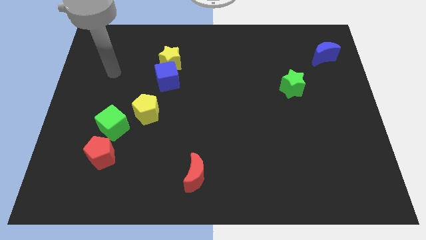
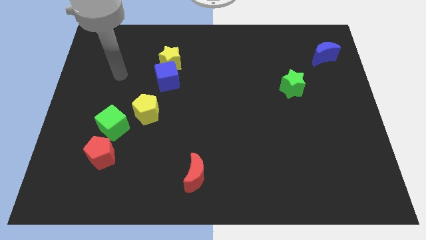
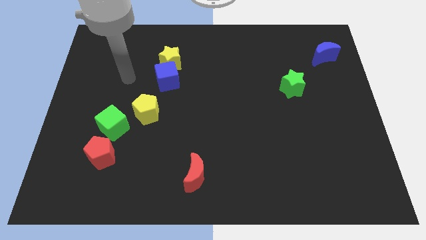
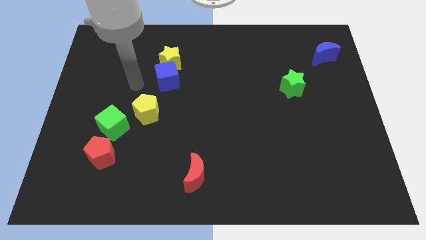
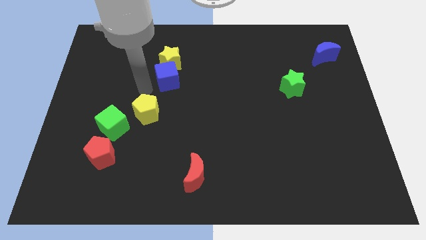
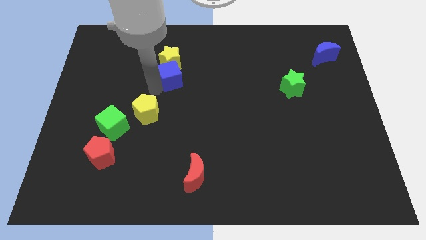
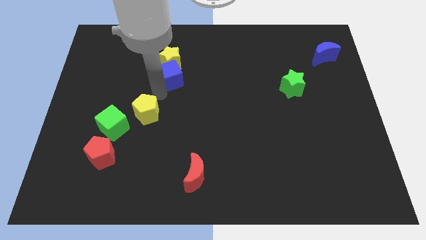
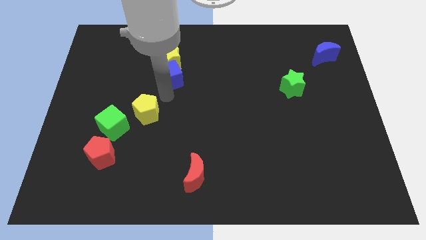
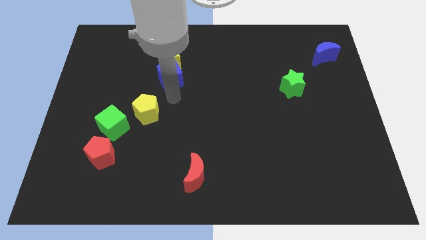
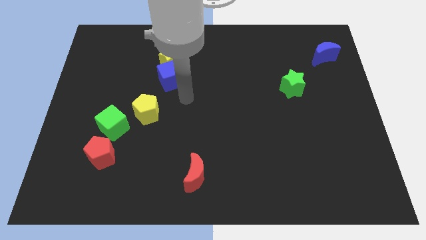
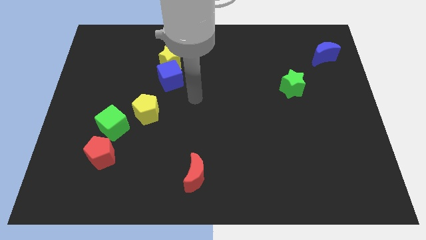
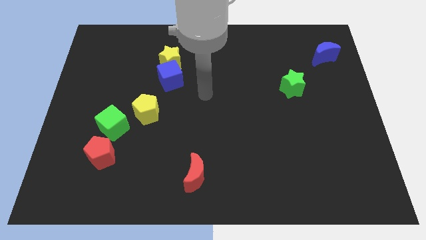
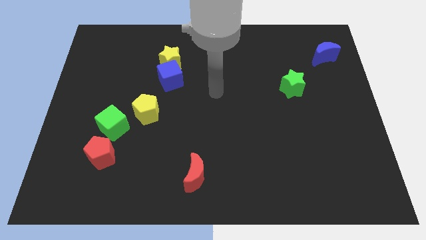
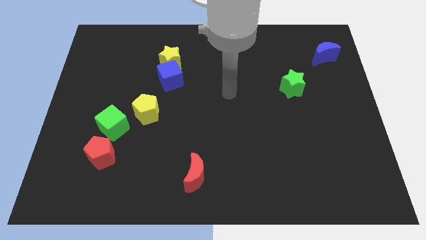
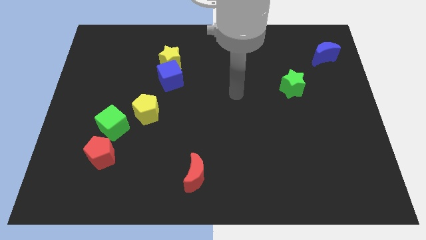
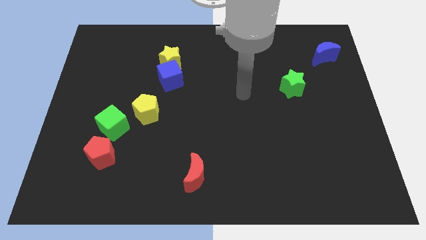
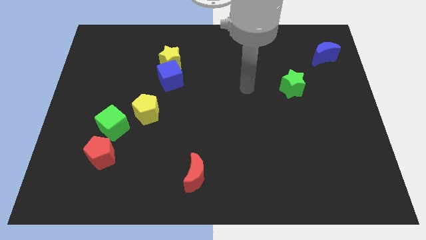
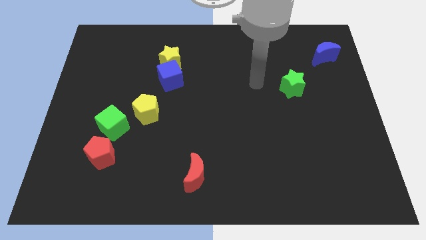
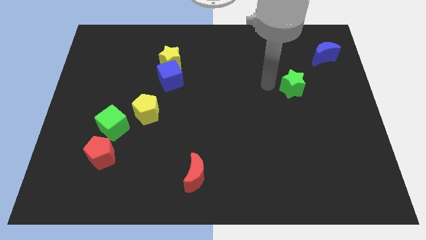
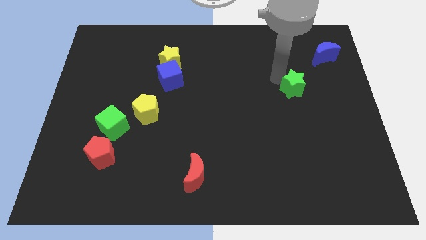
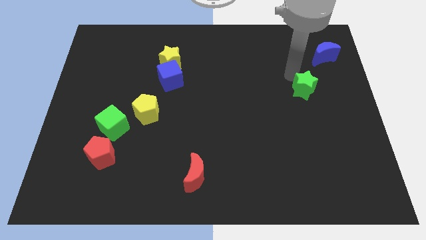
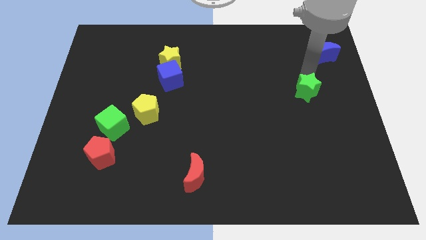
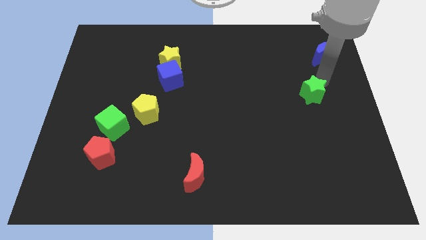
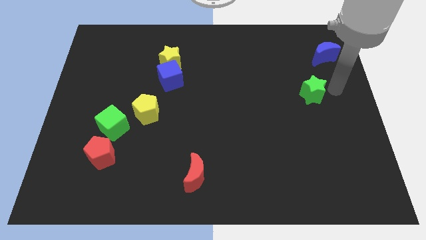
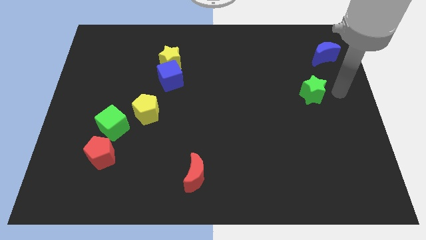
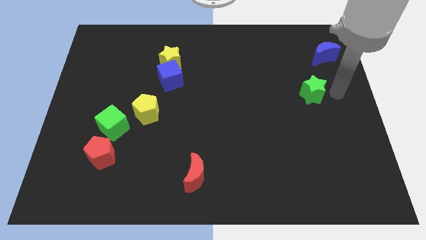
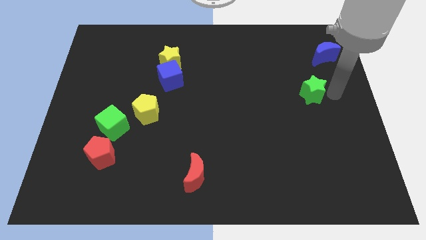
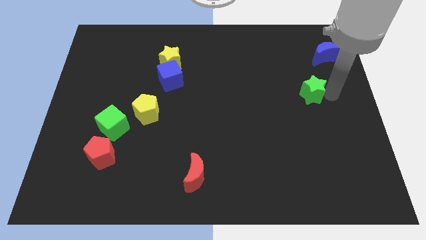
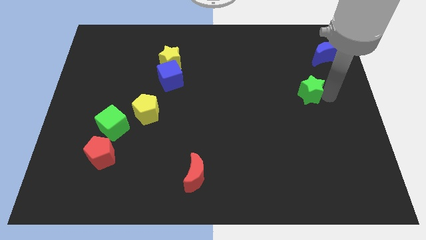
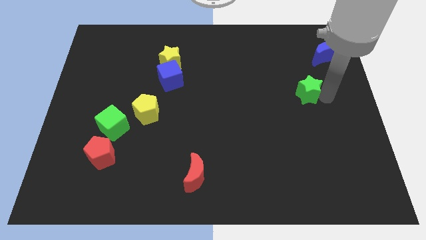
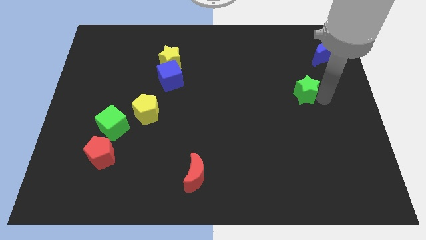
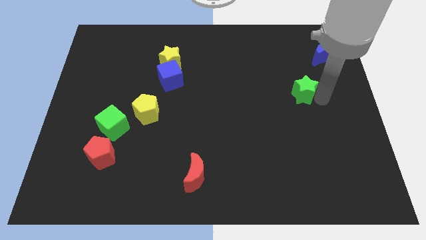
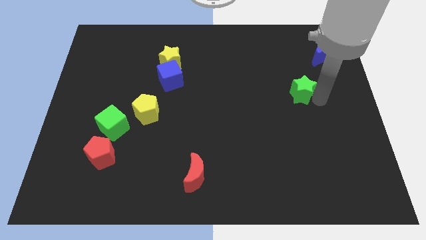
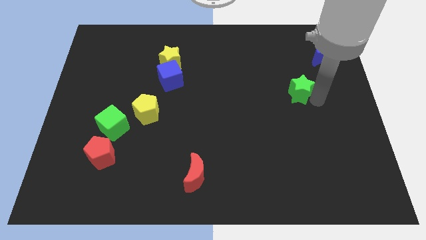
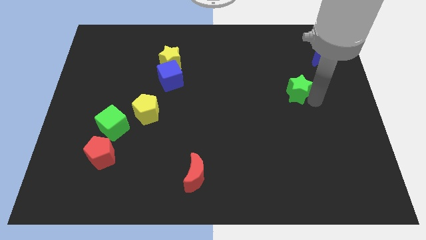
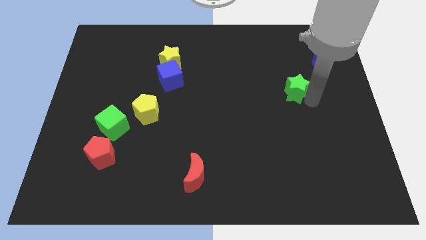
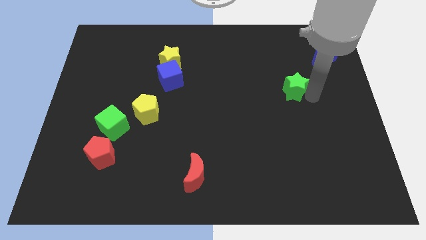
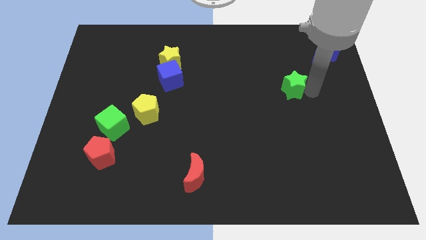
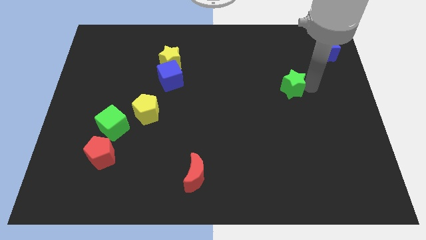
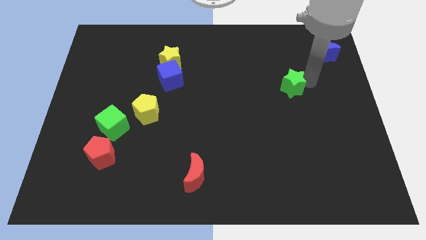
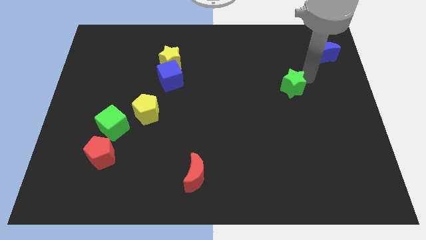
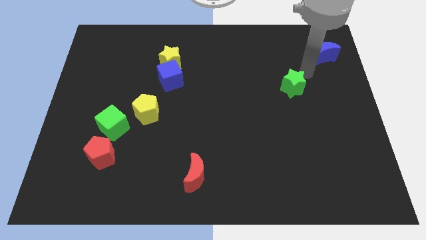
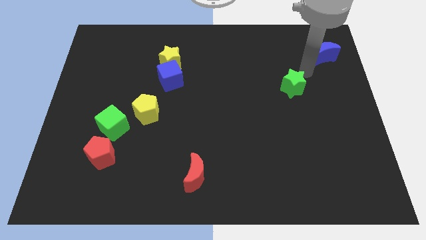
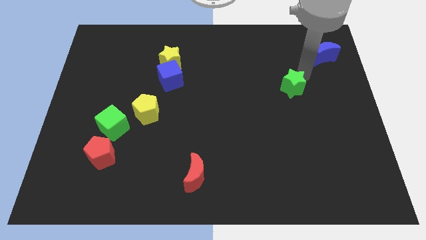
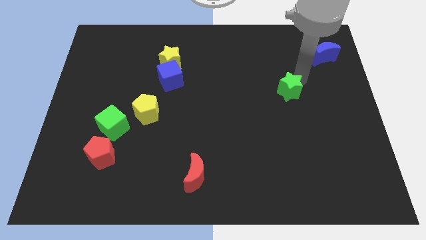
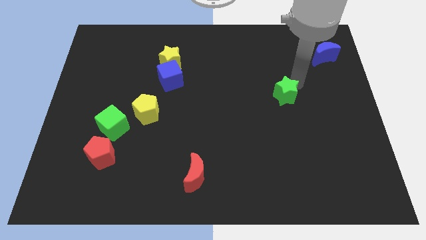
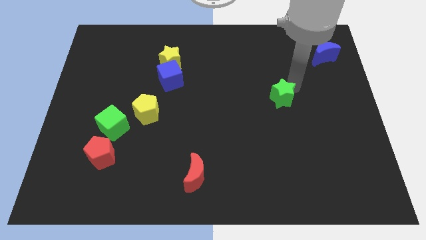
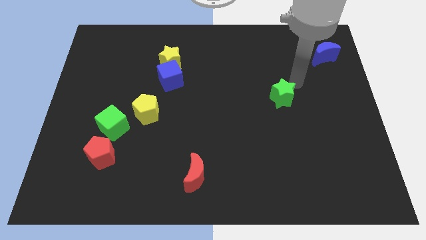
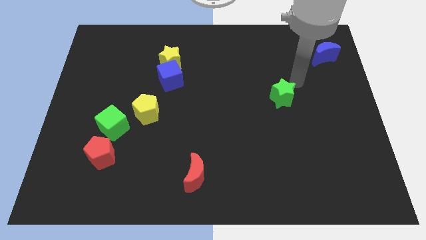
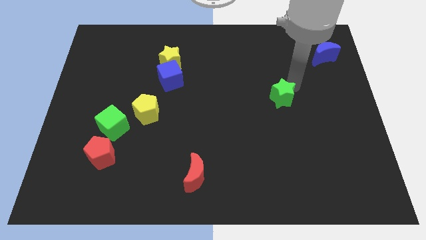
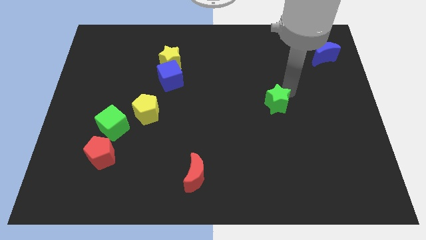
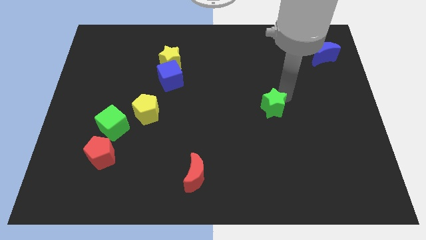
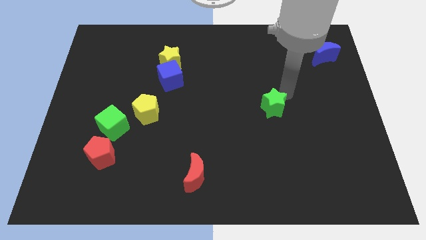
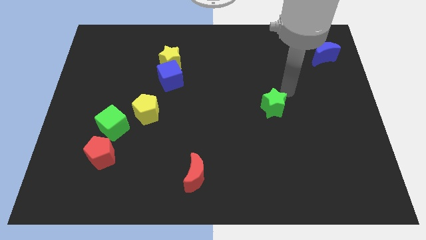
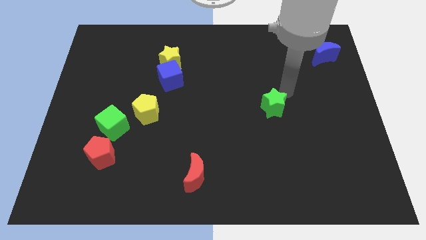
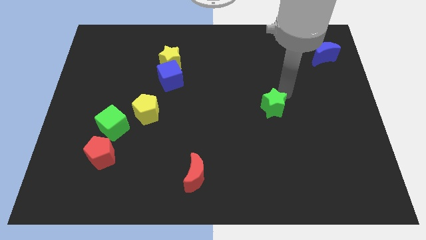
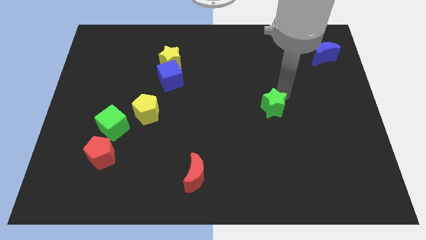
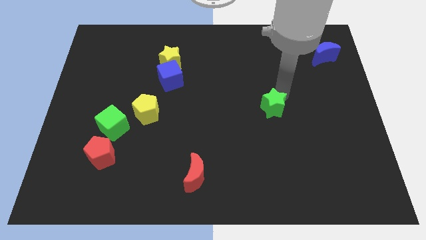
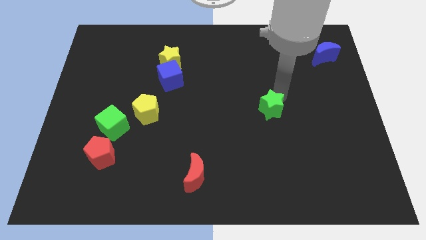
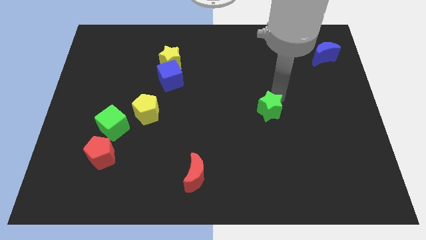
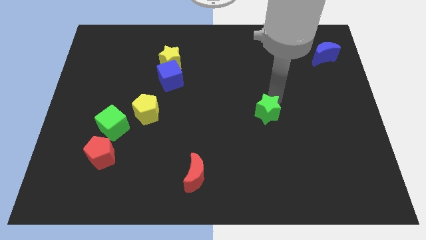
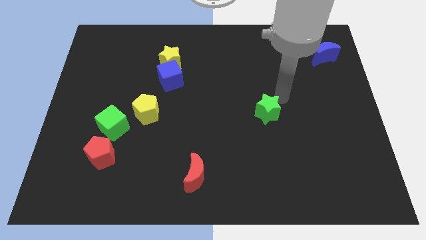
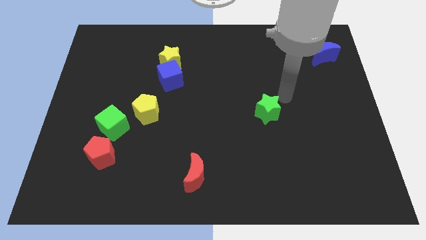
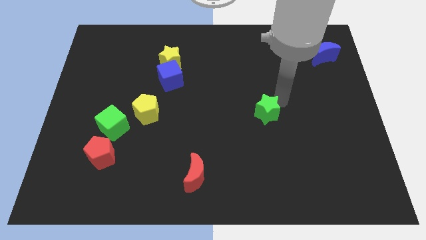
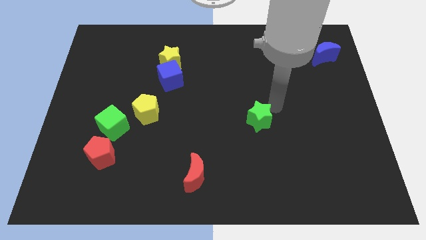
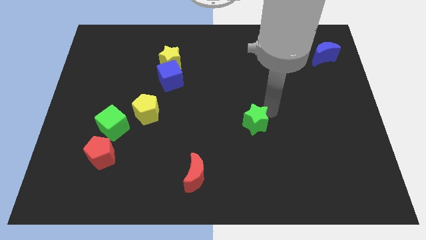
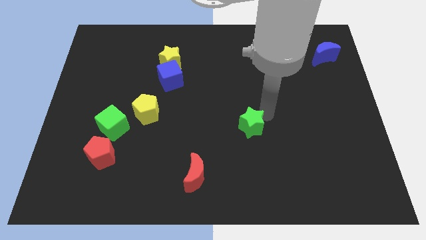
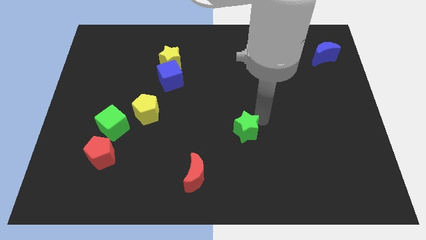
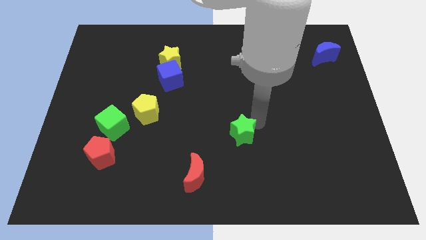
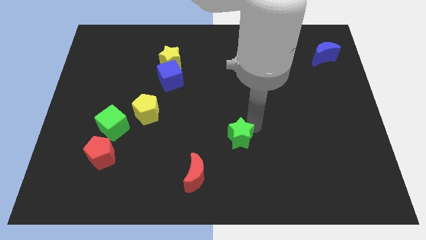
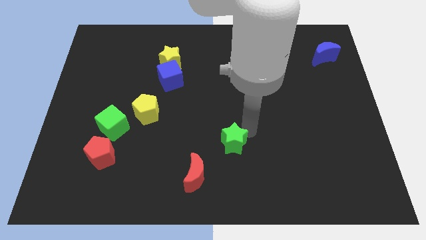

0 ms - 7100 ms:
slide the green star to the top right of the red moon
